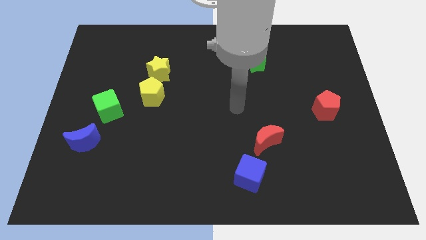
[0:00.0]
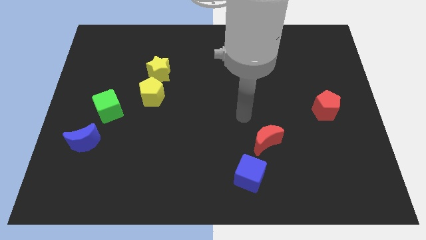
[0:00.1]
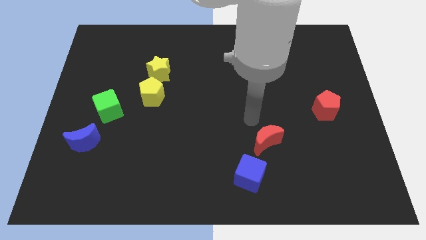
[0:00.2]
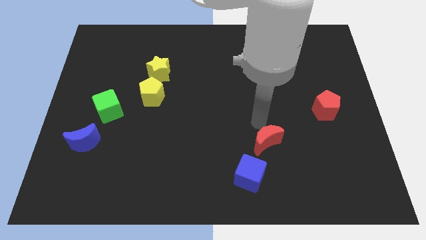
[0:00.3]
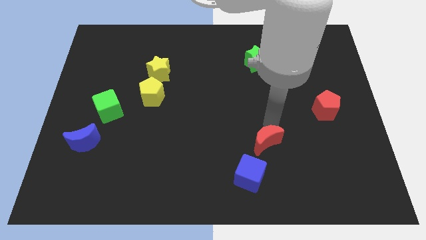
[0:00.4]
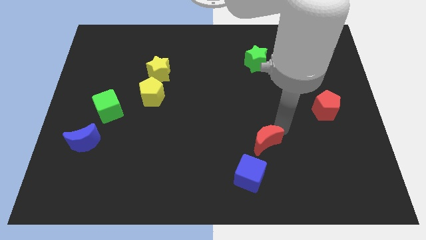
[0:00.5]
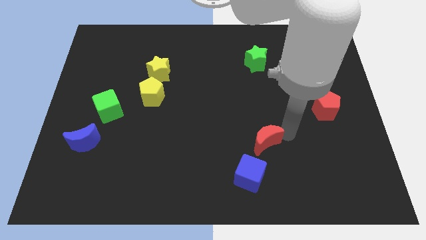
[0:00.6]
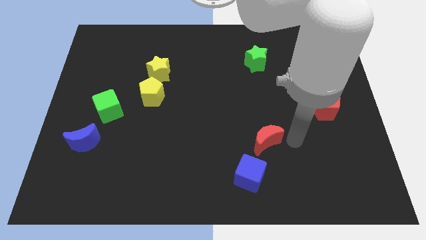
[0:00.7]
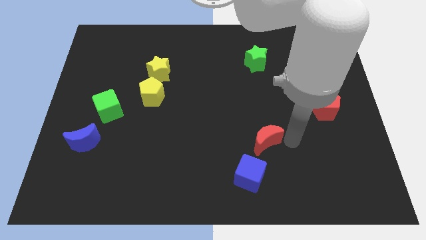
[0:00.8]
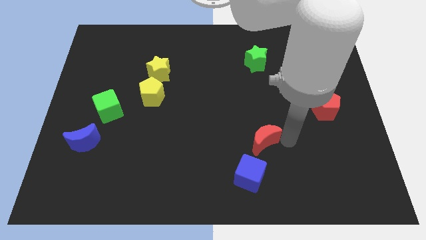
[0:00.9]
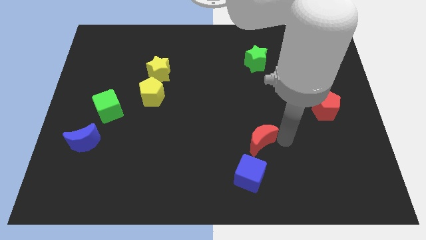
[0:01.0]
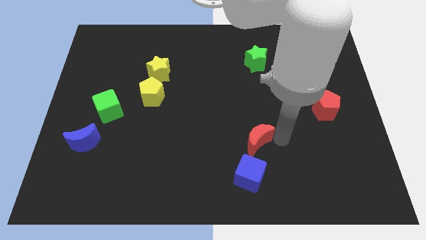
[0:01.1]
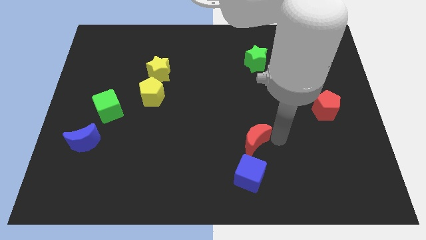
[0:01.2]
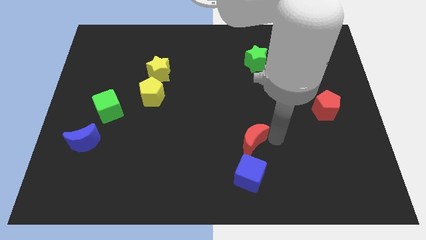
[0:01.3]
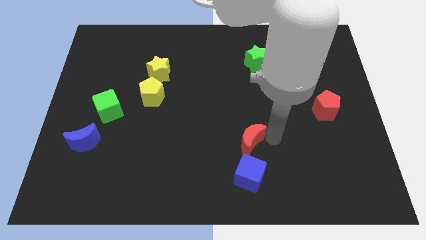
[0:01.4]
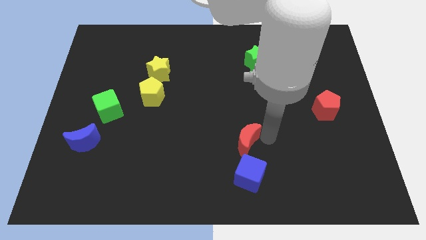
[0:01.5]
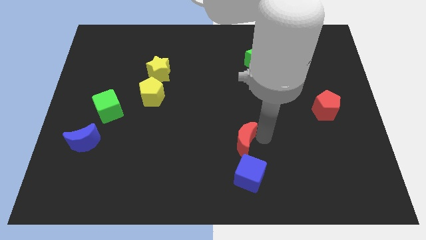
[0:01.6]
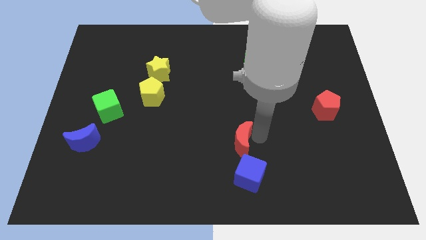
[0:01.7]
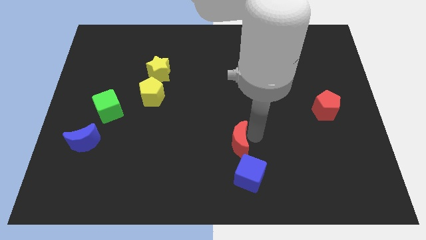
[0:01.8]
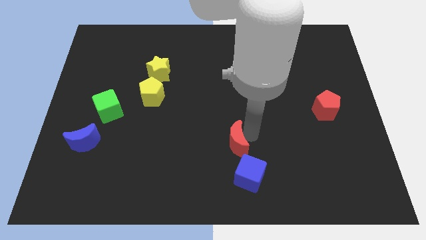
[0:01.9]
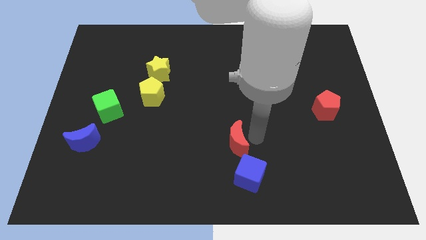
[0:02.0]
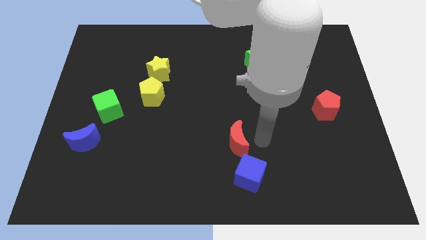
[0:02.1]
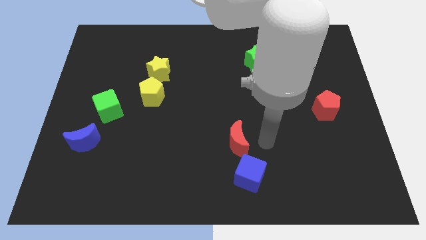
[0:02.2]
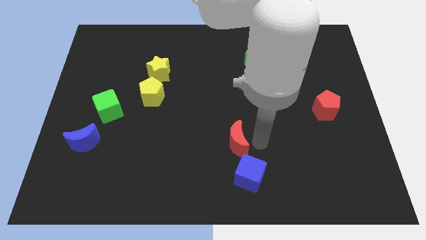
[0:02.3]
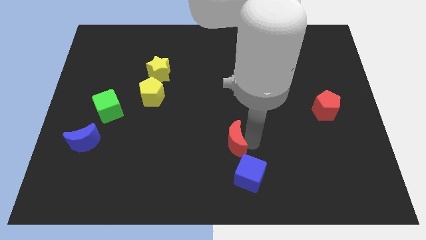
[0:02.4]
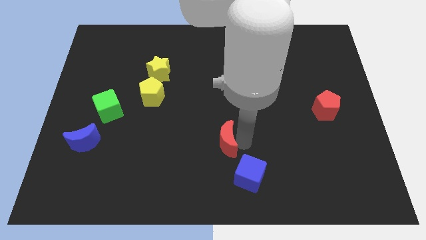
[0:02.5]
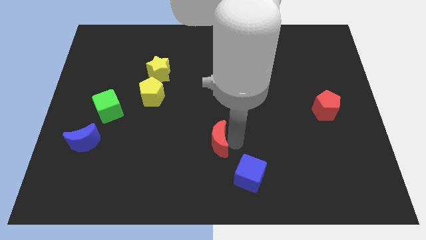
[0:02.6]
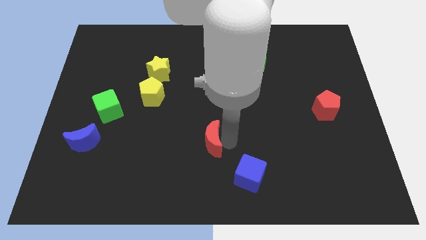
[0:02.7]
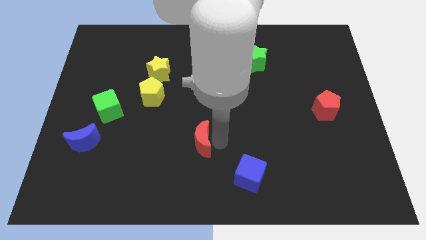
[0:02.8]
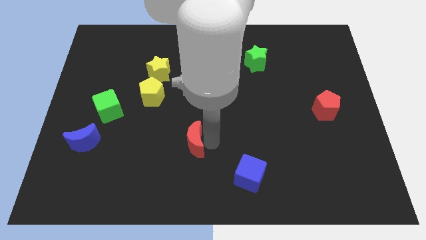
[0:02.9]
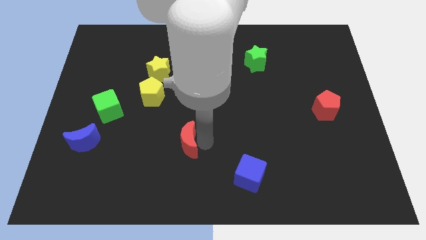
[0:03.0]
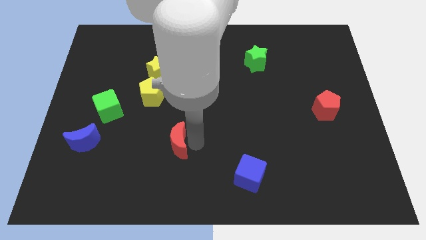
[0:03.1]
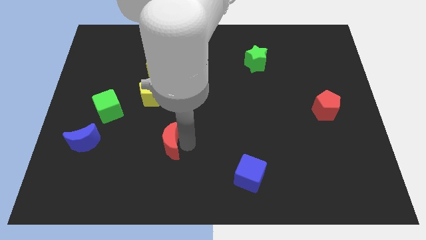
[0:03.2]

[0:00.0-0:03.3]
slide the red moon left

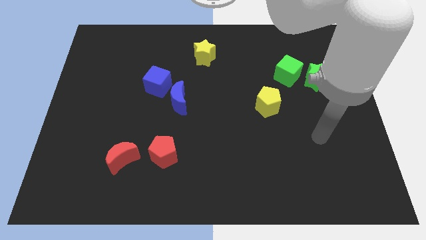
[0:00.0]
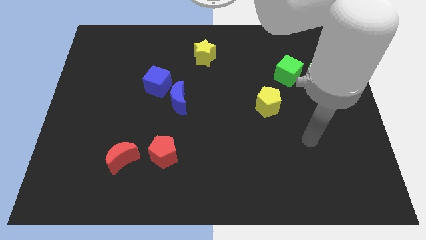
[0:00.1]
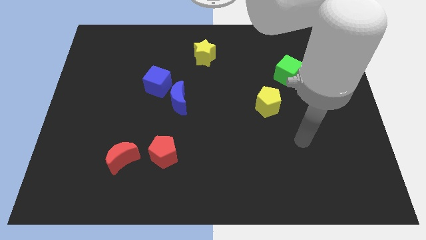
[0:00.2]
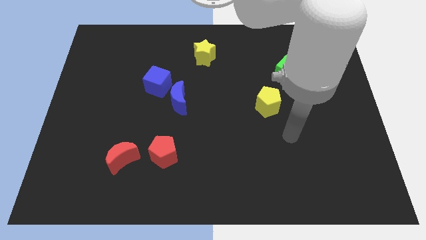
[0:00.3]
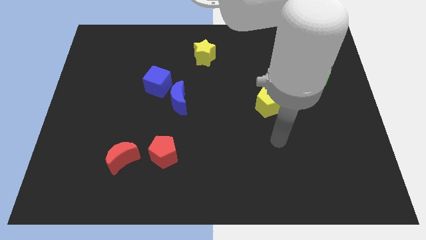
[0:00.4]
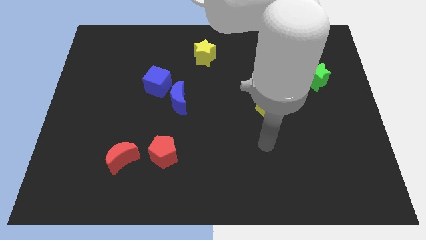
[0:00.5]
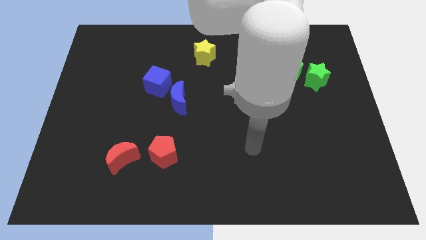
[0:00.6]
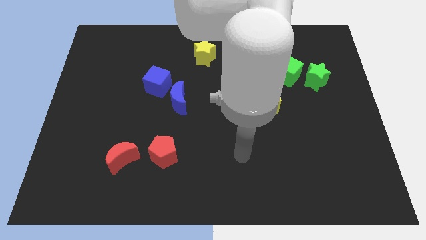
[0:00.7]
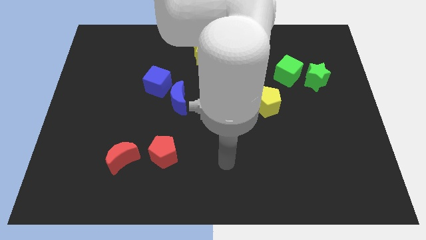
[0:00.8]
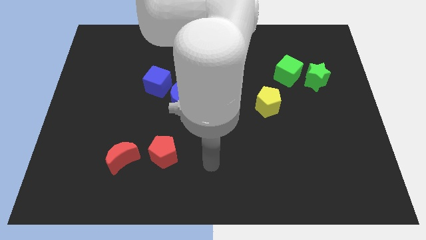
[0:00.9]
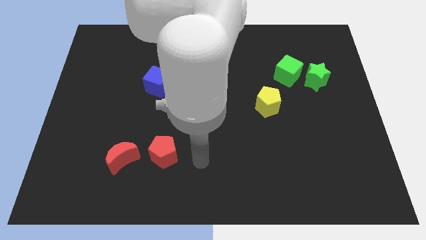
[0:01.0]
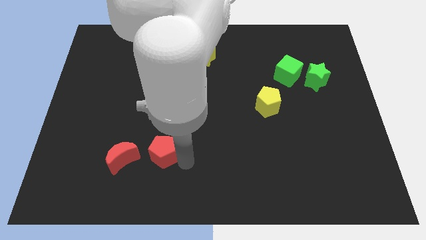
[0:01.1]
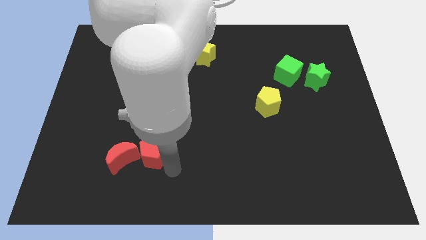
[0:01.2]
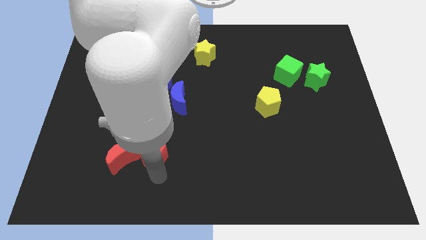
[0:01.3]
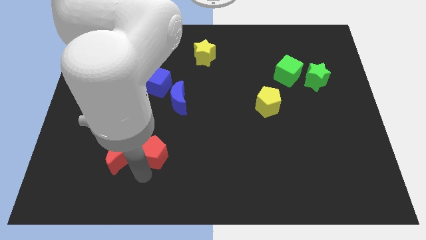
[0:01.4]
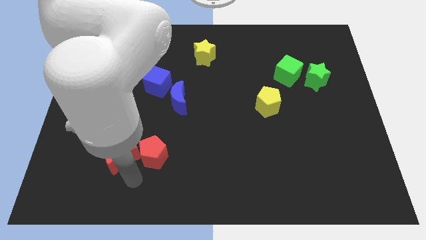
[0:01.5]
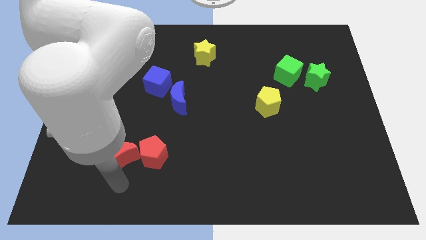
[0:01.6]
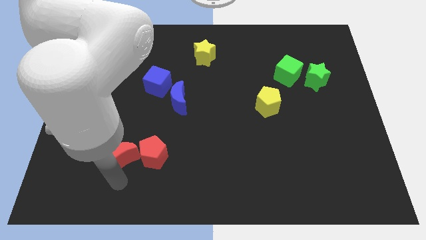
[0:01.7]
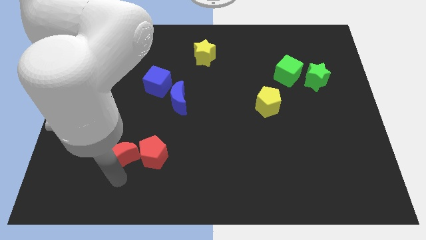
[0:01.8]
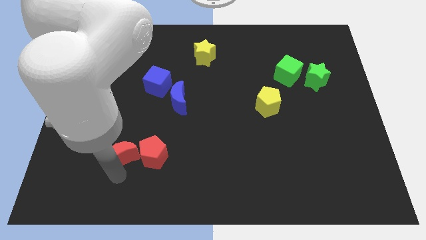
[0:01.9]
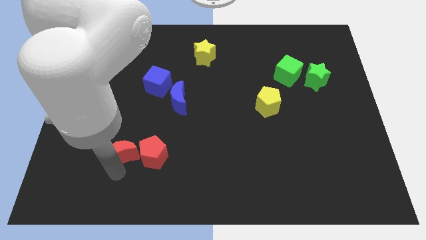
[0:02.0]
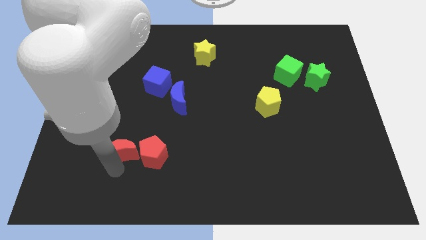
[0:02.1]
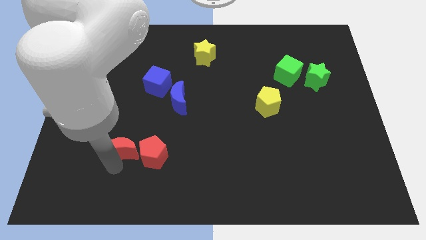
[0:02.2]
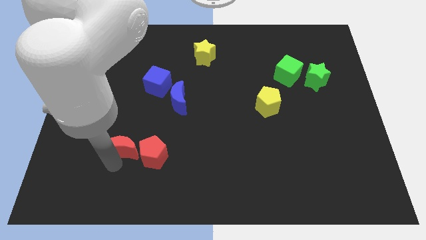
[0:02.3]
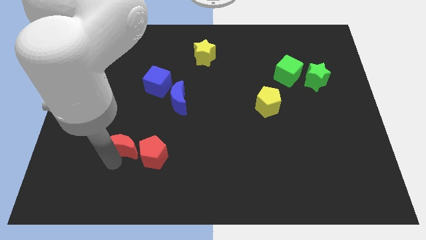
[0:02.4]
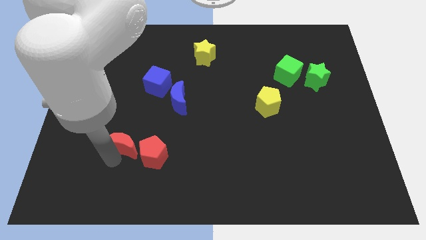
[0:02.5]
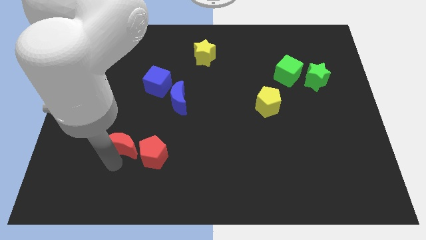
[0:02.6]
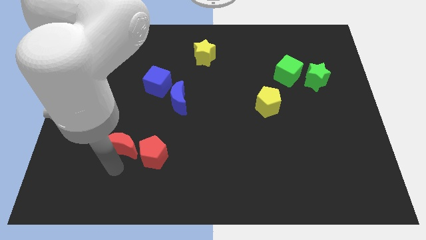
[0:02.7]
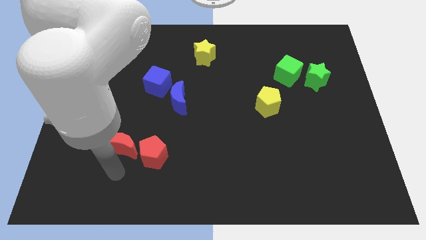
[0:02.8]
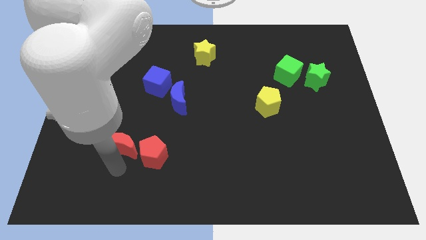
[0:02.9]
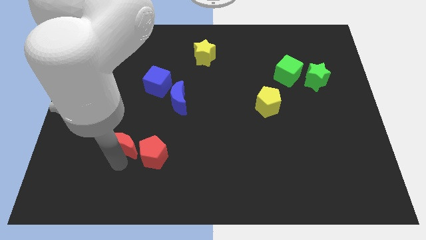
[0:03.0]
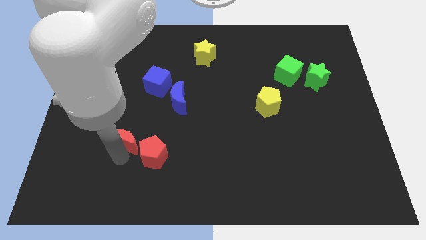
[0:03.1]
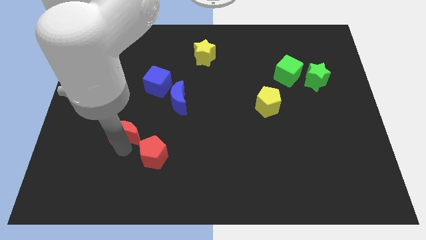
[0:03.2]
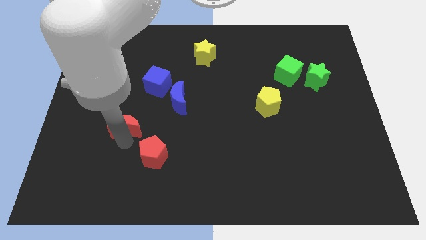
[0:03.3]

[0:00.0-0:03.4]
slightly move the red moon up

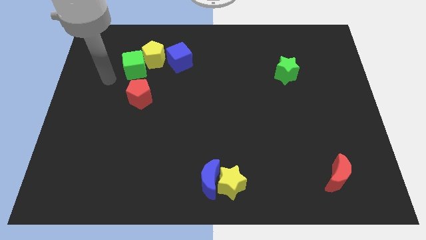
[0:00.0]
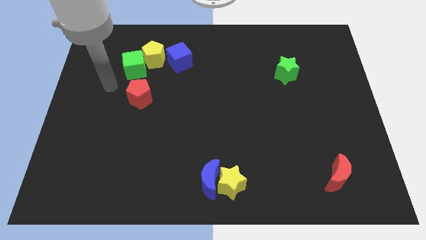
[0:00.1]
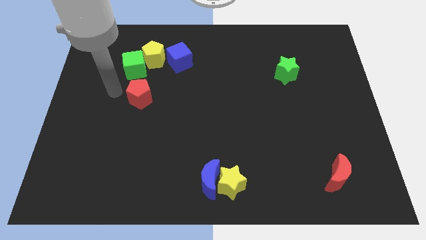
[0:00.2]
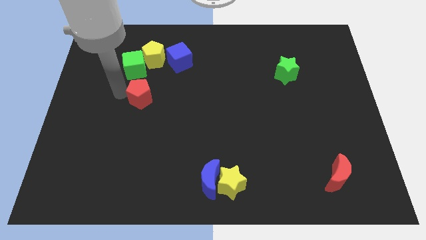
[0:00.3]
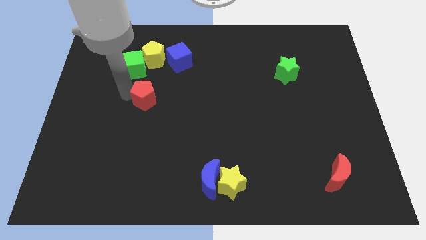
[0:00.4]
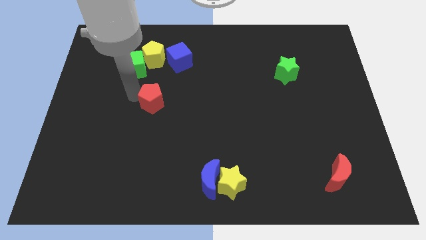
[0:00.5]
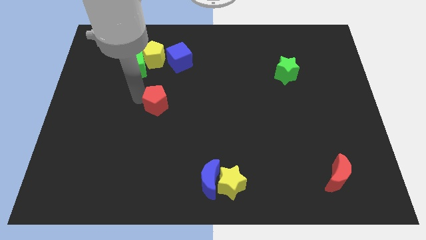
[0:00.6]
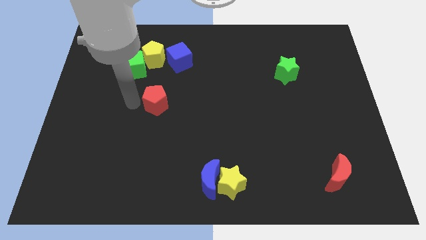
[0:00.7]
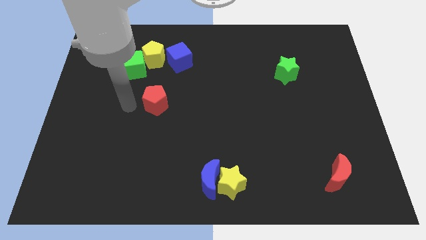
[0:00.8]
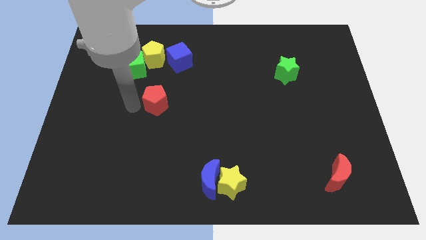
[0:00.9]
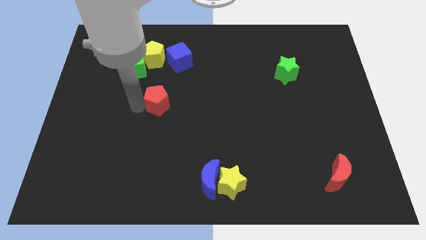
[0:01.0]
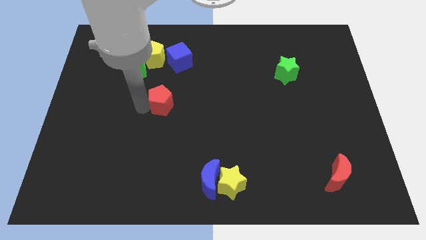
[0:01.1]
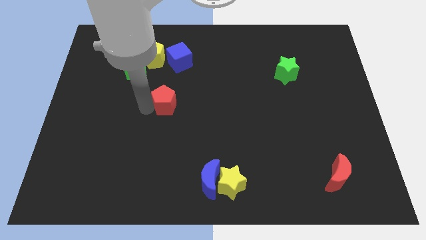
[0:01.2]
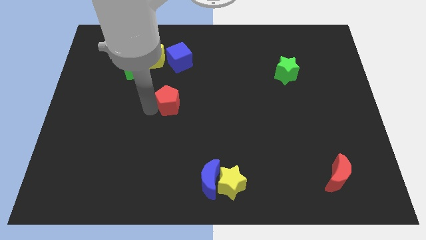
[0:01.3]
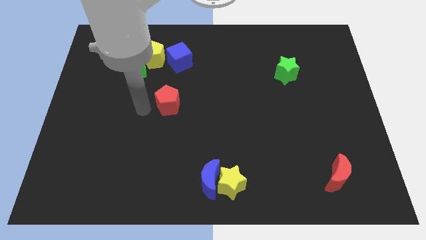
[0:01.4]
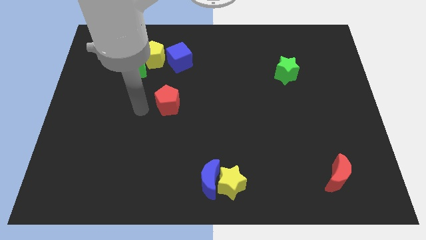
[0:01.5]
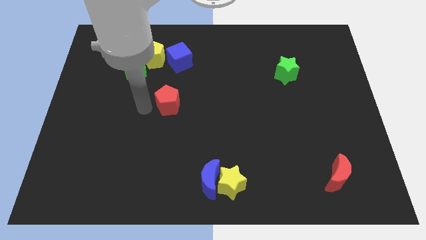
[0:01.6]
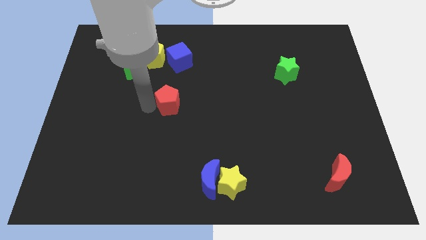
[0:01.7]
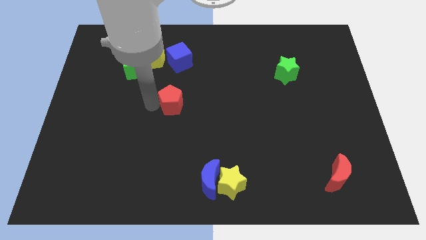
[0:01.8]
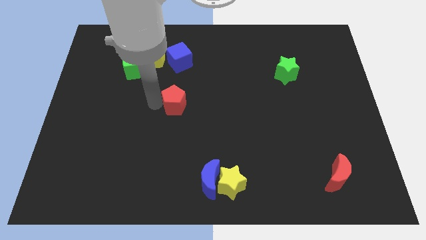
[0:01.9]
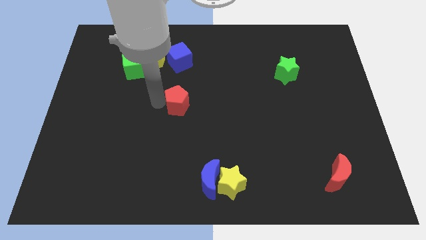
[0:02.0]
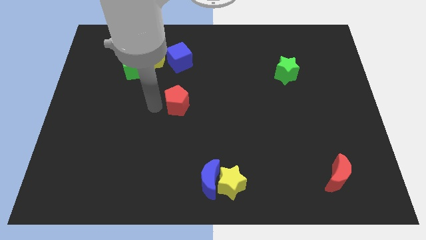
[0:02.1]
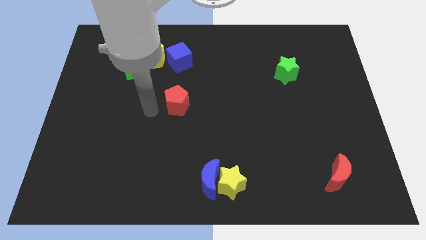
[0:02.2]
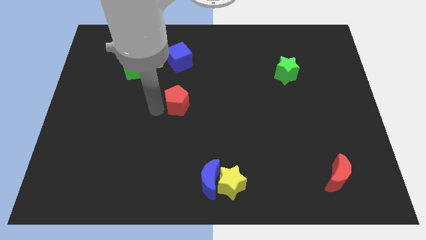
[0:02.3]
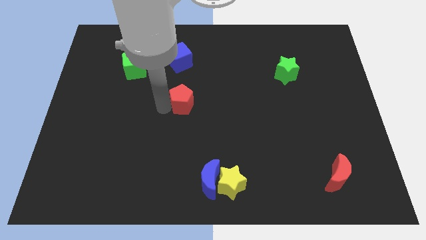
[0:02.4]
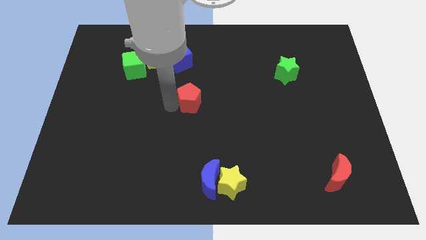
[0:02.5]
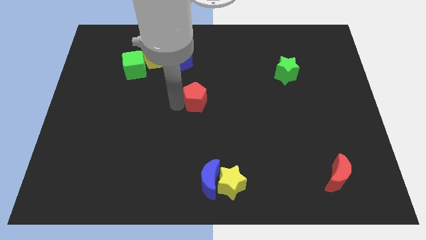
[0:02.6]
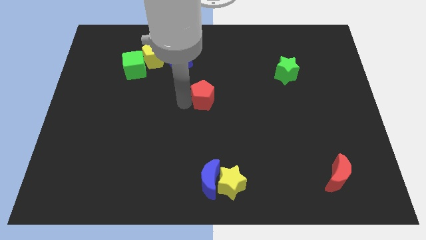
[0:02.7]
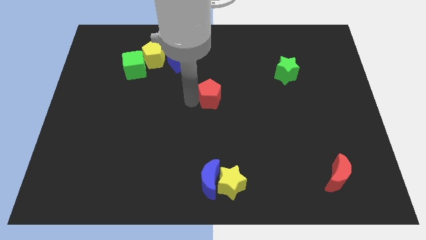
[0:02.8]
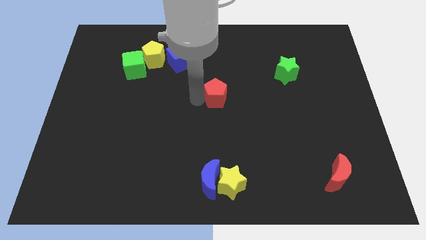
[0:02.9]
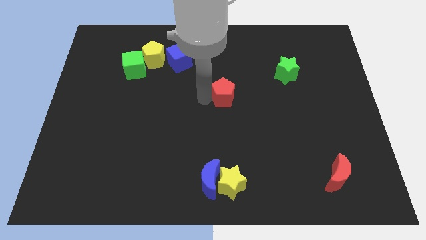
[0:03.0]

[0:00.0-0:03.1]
slide the red pentagon to the right
